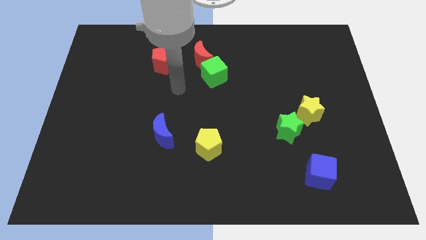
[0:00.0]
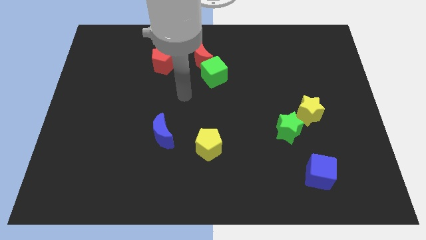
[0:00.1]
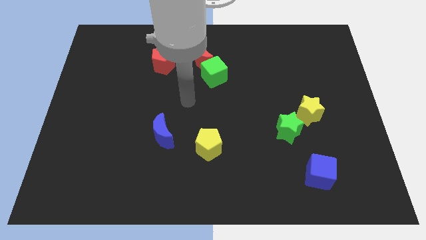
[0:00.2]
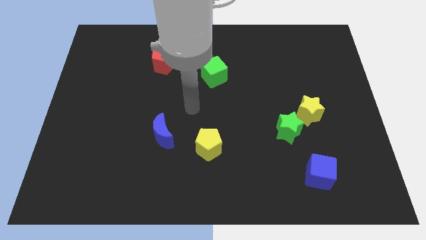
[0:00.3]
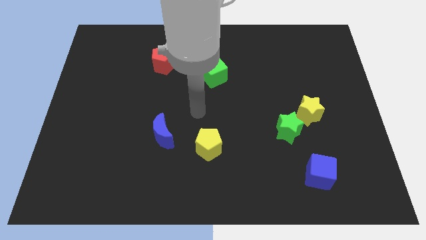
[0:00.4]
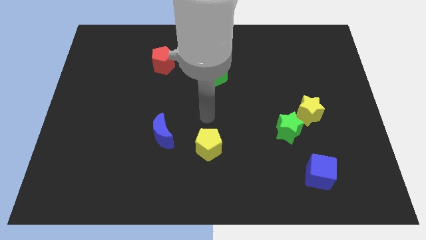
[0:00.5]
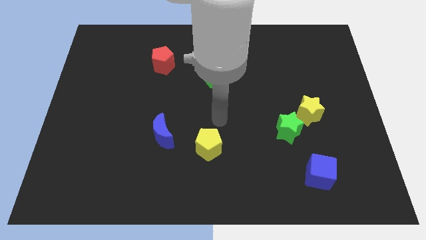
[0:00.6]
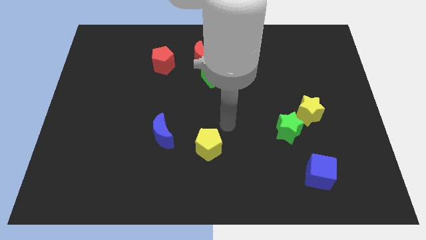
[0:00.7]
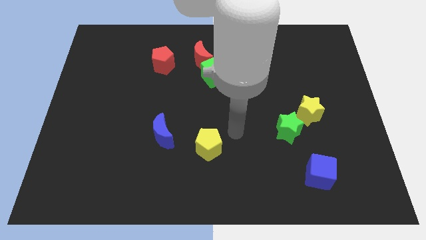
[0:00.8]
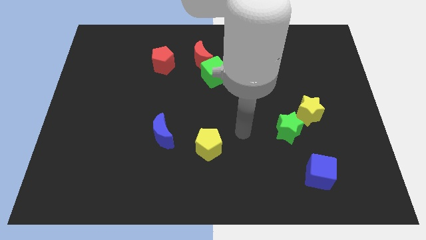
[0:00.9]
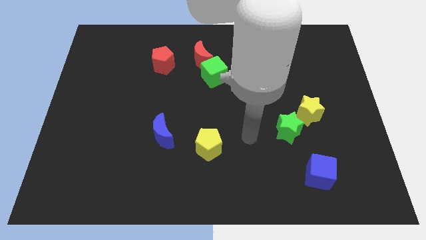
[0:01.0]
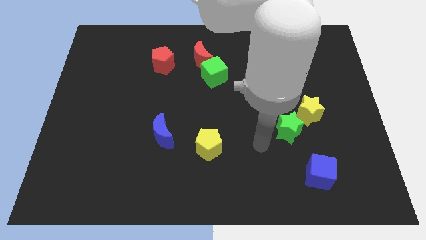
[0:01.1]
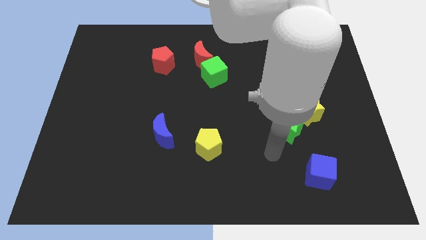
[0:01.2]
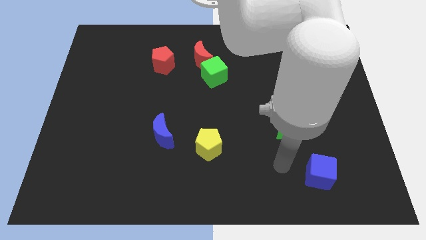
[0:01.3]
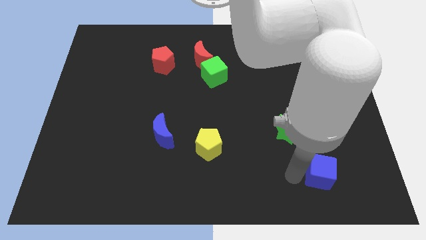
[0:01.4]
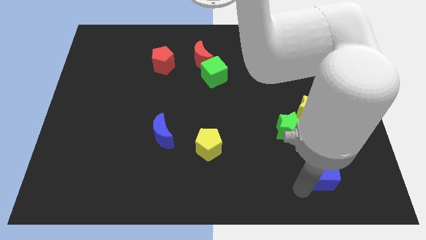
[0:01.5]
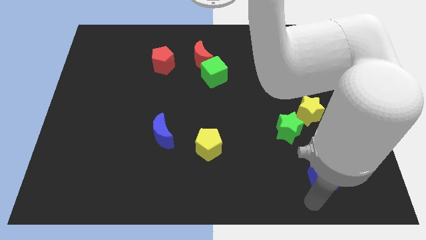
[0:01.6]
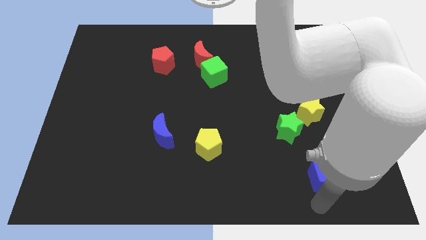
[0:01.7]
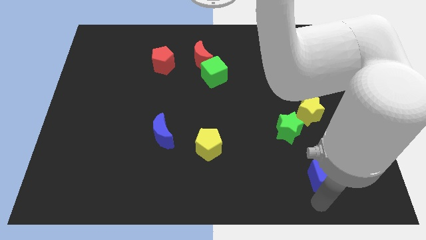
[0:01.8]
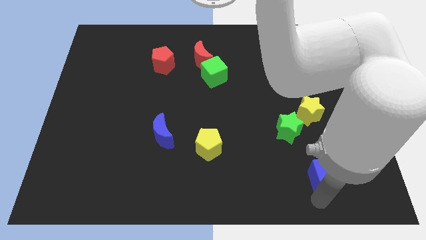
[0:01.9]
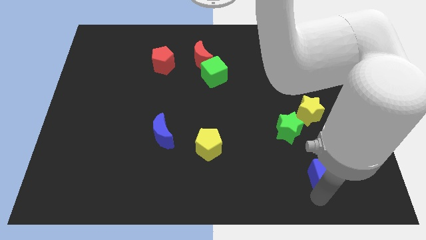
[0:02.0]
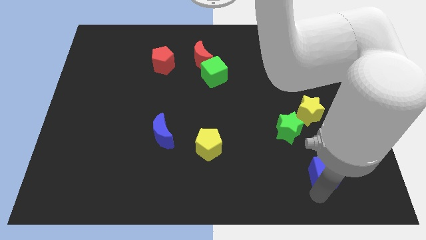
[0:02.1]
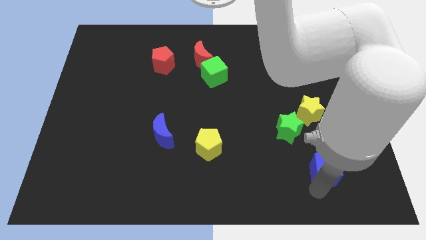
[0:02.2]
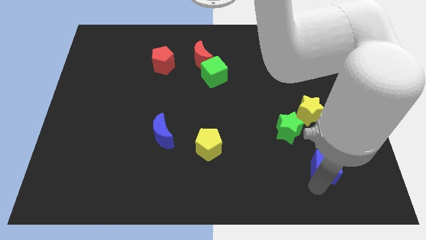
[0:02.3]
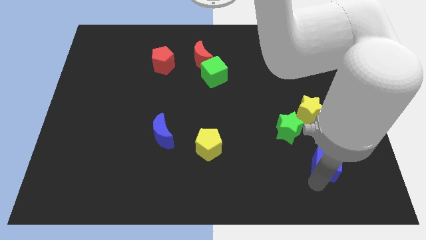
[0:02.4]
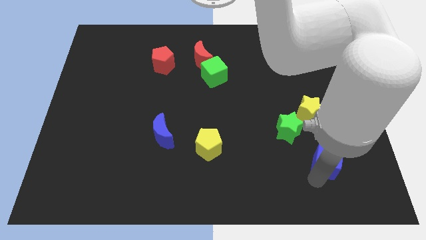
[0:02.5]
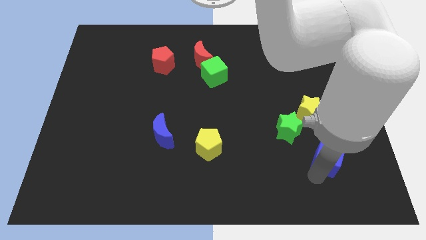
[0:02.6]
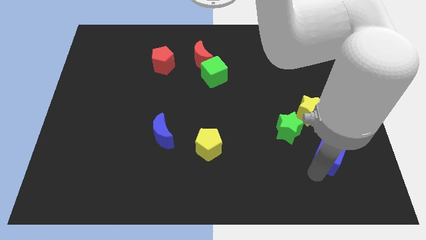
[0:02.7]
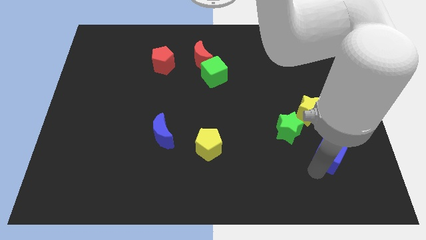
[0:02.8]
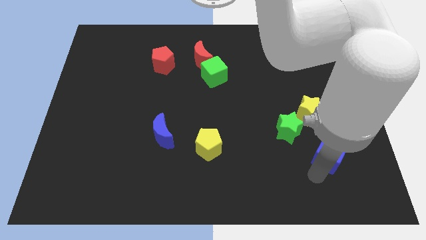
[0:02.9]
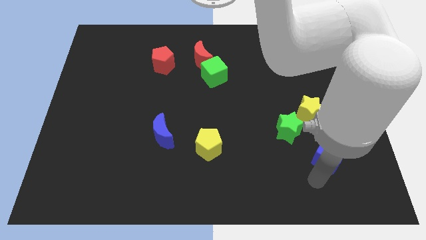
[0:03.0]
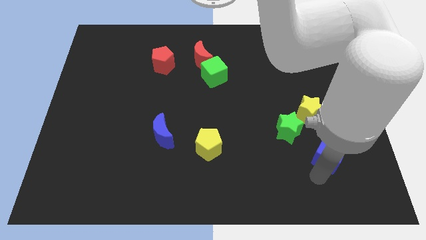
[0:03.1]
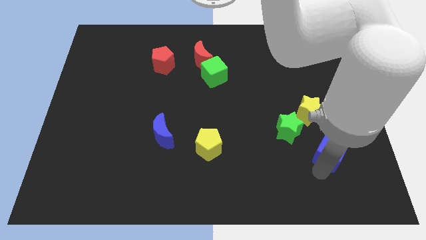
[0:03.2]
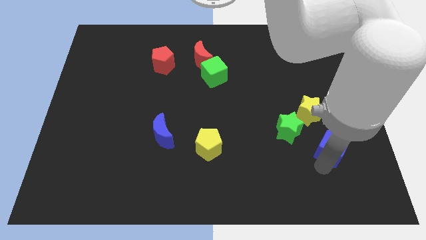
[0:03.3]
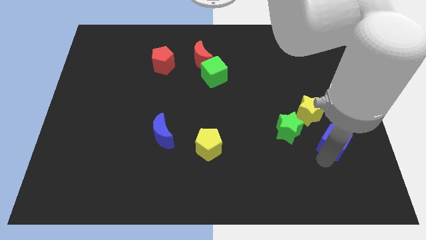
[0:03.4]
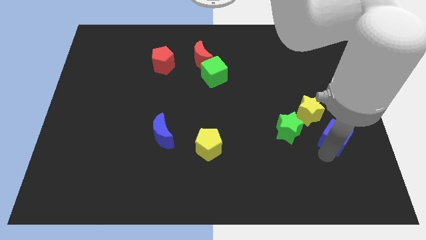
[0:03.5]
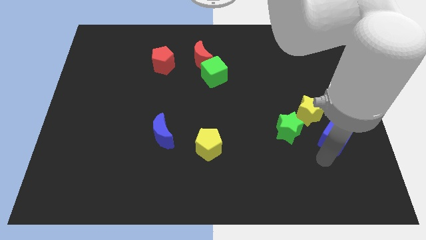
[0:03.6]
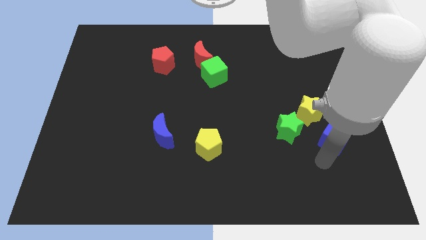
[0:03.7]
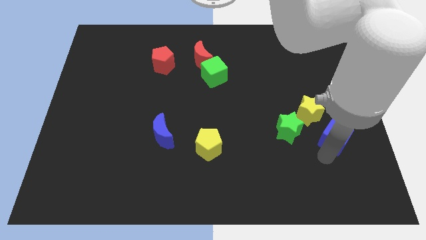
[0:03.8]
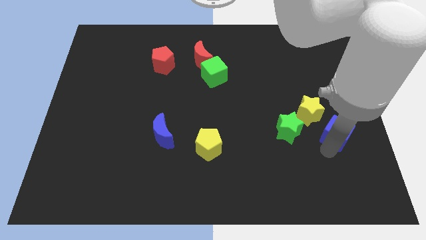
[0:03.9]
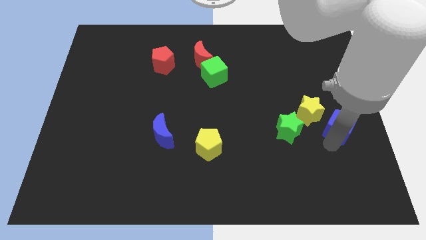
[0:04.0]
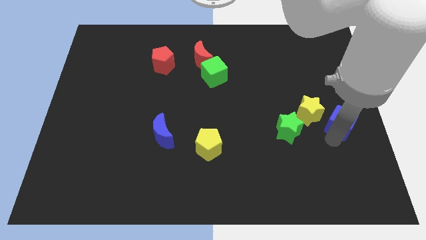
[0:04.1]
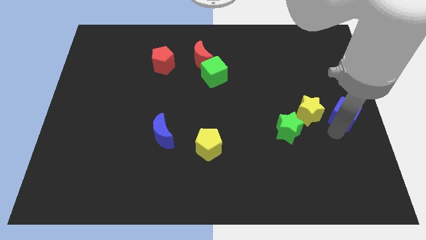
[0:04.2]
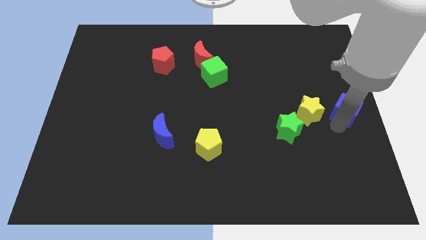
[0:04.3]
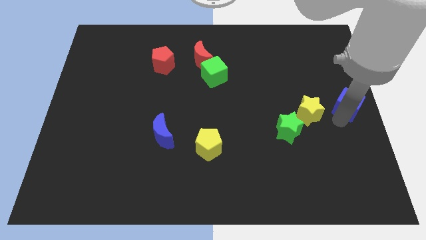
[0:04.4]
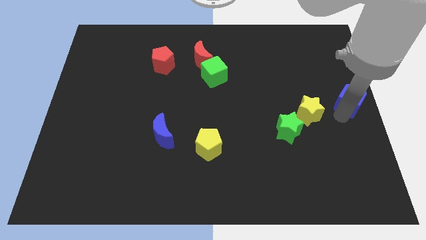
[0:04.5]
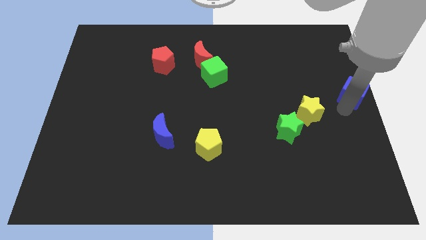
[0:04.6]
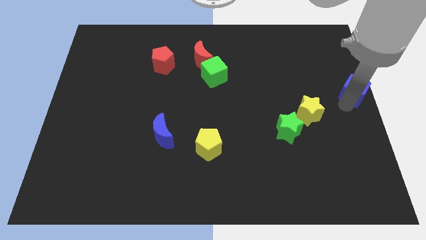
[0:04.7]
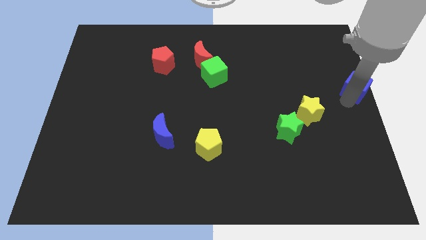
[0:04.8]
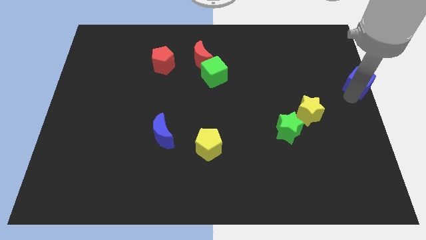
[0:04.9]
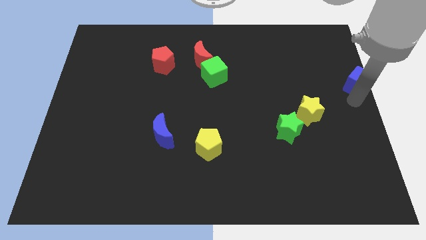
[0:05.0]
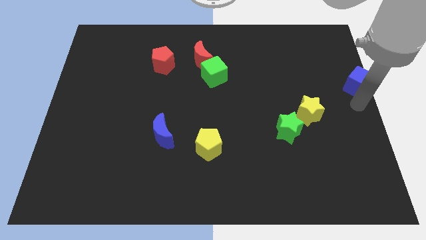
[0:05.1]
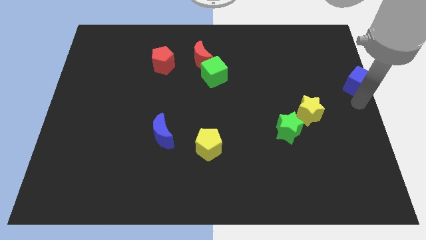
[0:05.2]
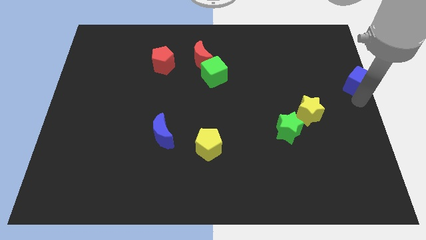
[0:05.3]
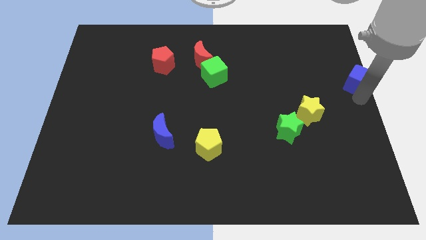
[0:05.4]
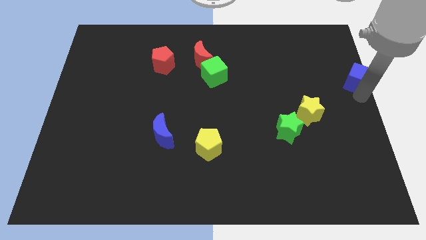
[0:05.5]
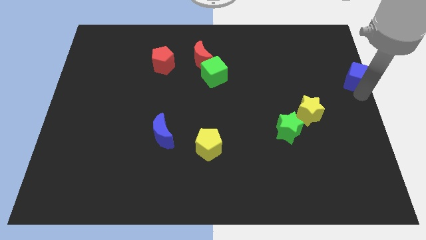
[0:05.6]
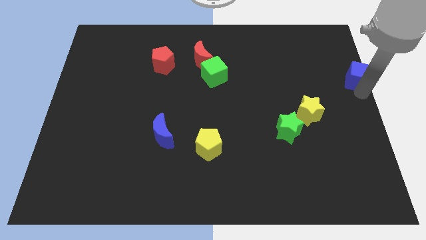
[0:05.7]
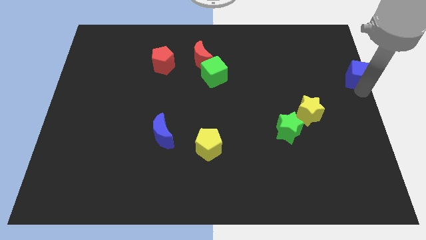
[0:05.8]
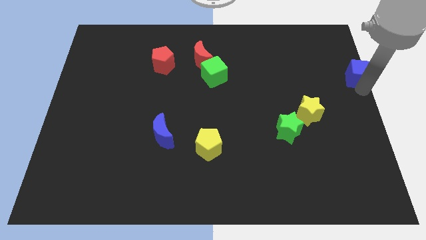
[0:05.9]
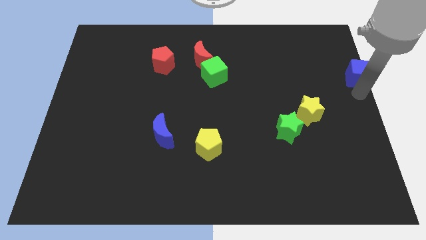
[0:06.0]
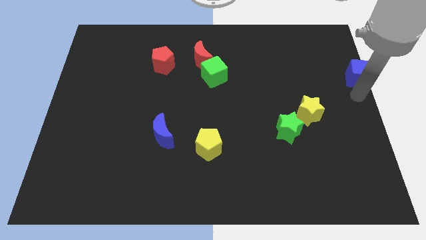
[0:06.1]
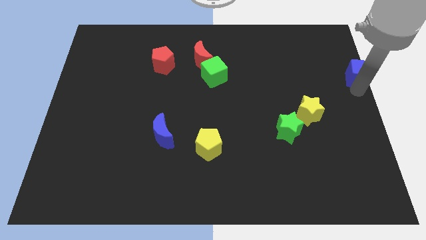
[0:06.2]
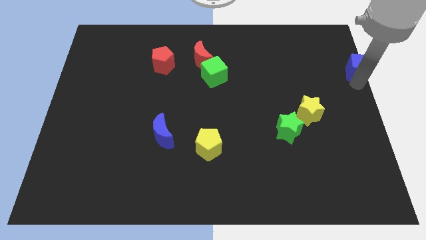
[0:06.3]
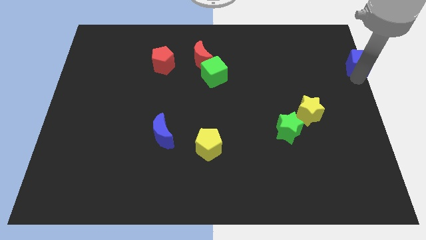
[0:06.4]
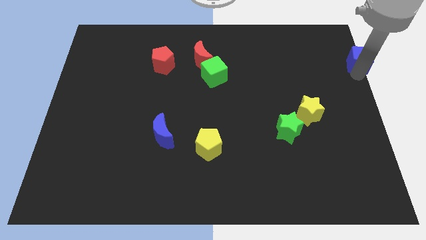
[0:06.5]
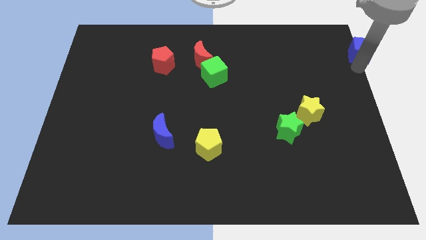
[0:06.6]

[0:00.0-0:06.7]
push the blue cube to the top right
